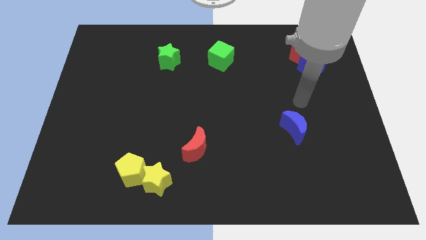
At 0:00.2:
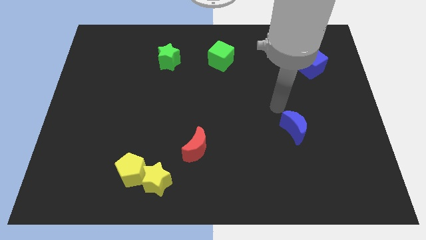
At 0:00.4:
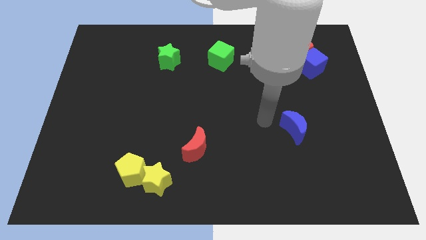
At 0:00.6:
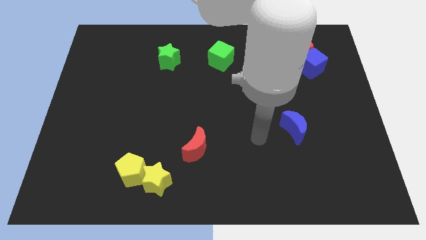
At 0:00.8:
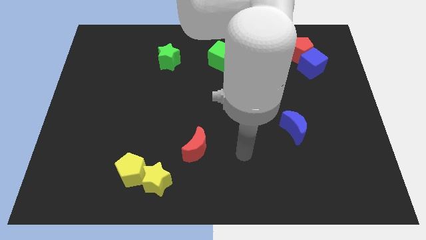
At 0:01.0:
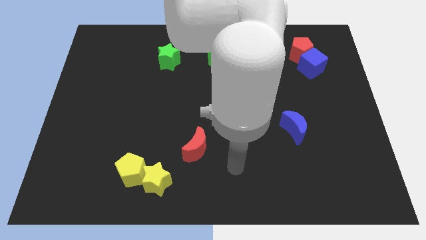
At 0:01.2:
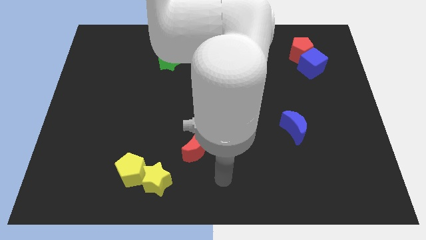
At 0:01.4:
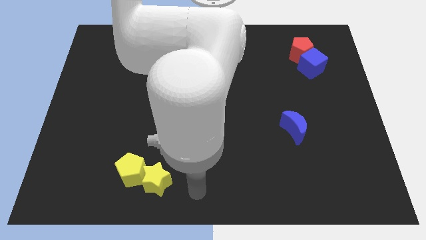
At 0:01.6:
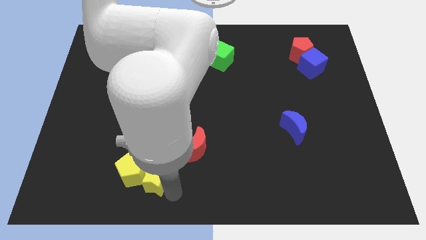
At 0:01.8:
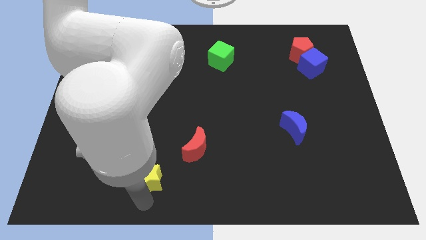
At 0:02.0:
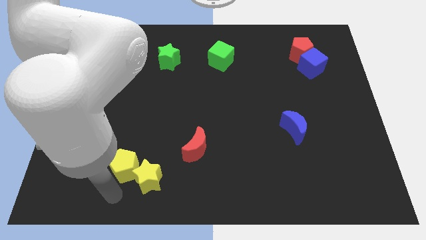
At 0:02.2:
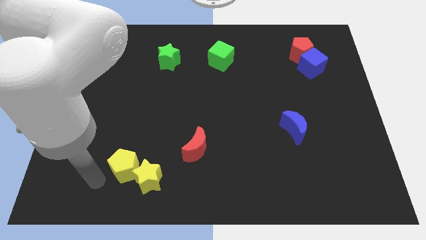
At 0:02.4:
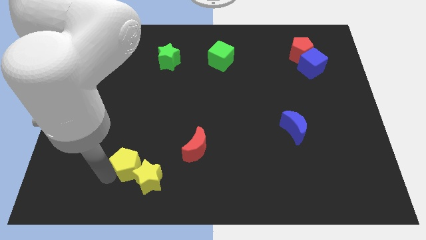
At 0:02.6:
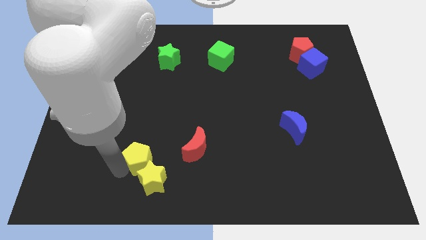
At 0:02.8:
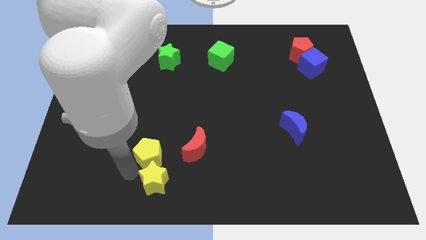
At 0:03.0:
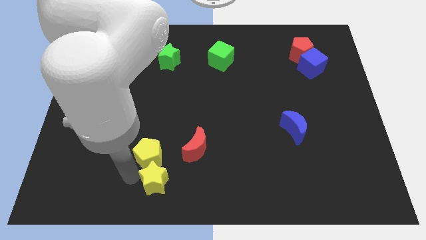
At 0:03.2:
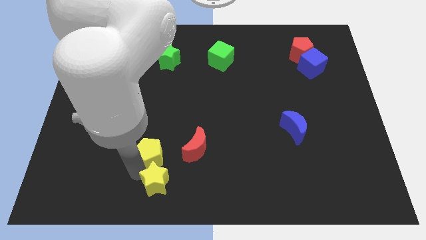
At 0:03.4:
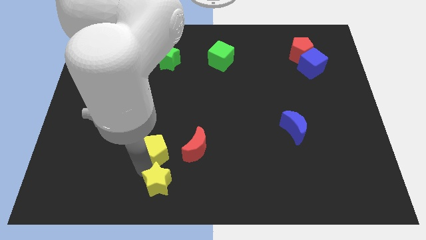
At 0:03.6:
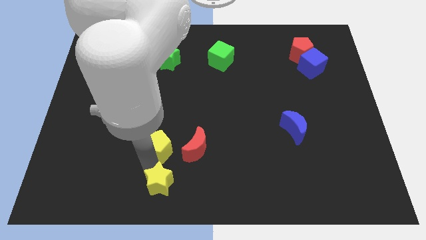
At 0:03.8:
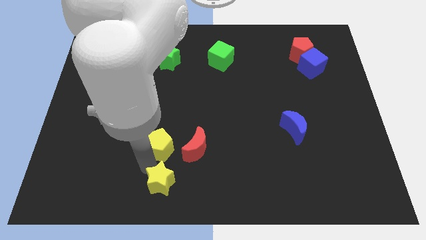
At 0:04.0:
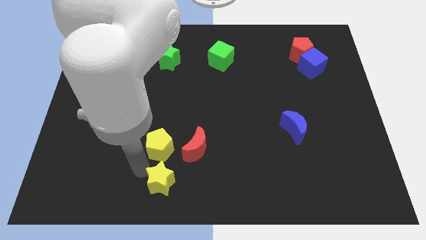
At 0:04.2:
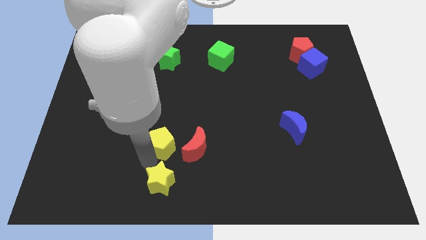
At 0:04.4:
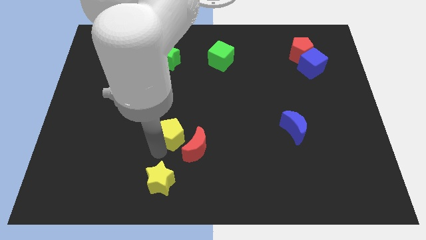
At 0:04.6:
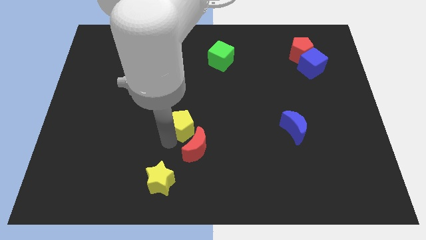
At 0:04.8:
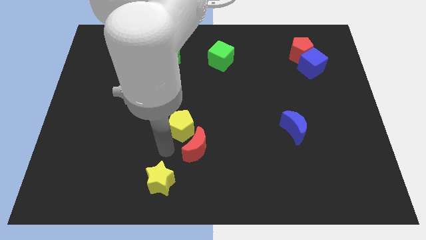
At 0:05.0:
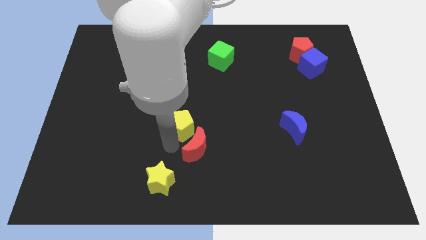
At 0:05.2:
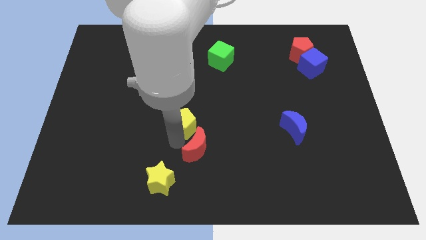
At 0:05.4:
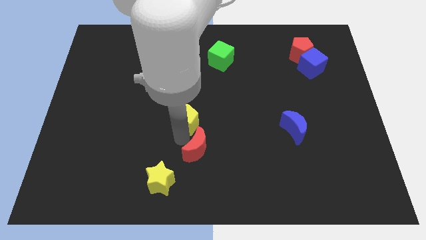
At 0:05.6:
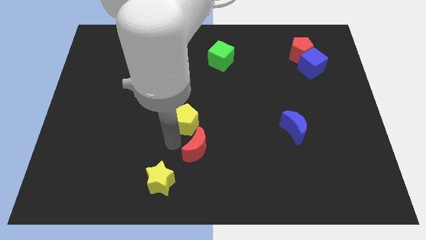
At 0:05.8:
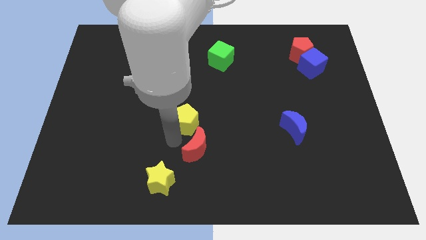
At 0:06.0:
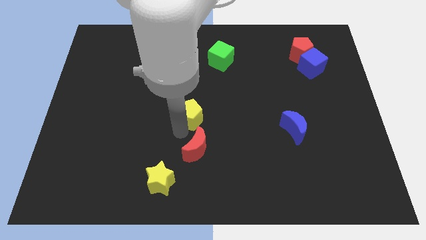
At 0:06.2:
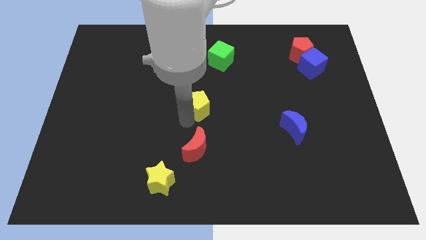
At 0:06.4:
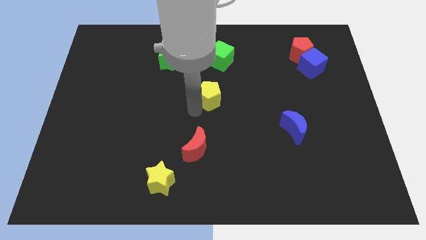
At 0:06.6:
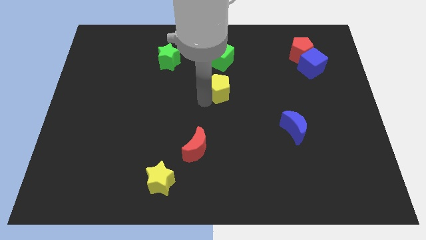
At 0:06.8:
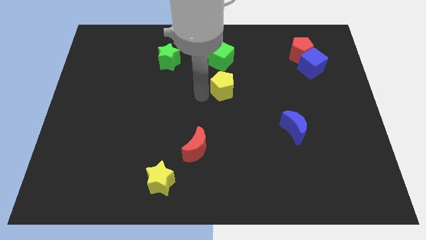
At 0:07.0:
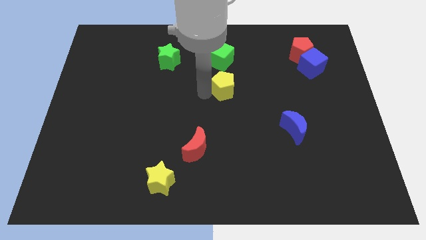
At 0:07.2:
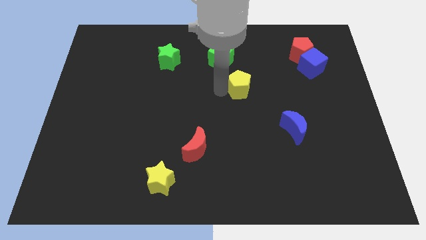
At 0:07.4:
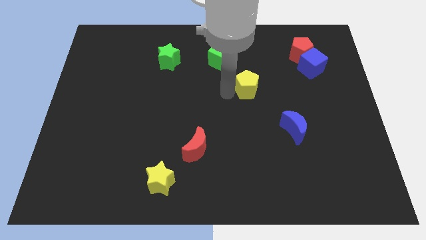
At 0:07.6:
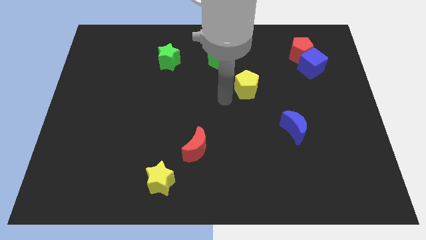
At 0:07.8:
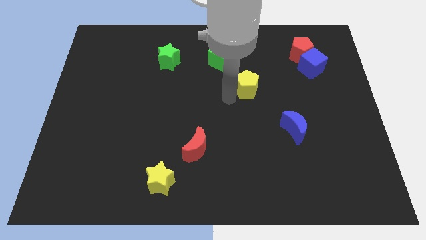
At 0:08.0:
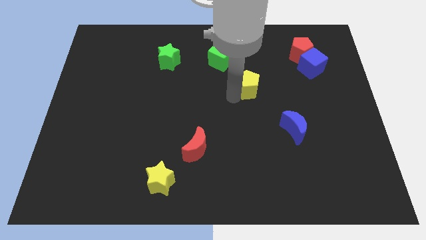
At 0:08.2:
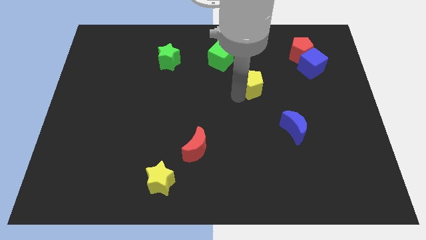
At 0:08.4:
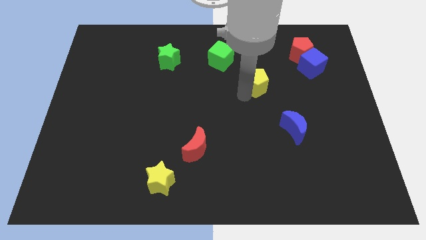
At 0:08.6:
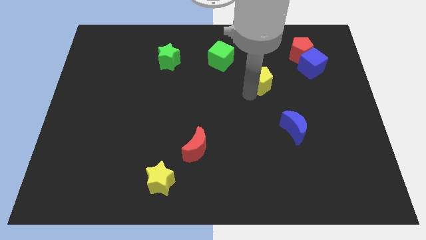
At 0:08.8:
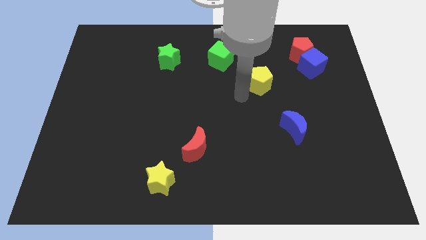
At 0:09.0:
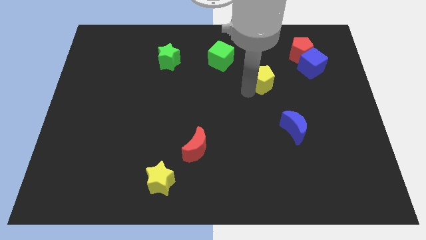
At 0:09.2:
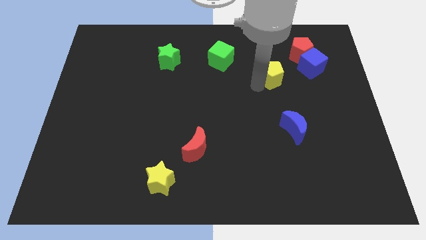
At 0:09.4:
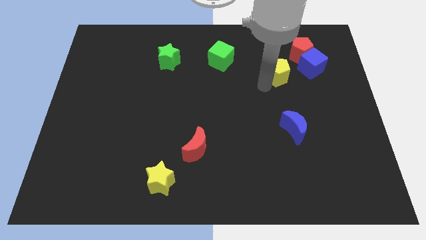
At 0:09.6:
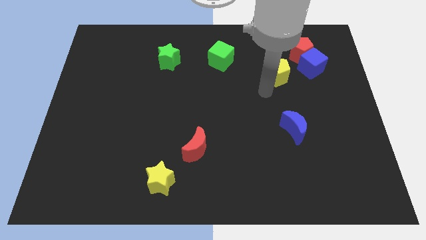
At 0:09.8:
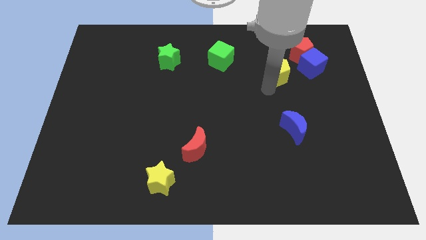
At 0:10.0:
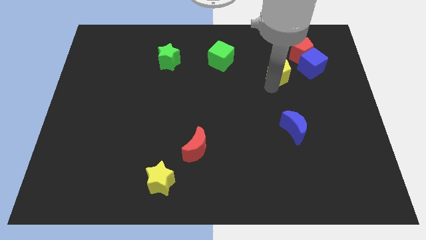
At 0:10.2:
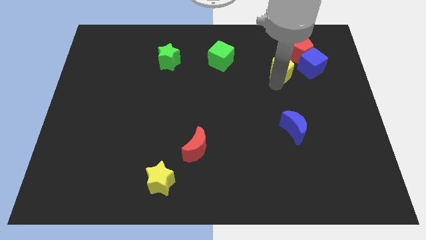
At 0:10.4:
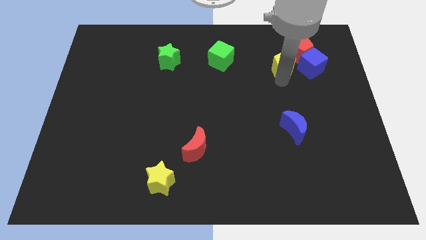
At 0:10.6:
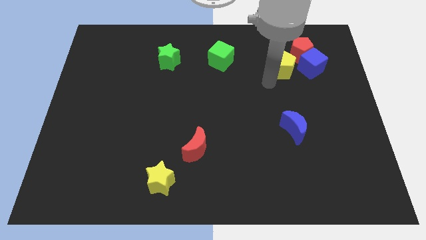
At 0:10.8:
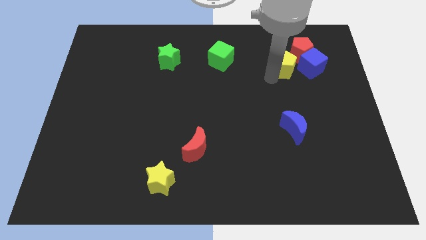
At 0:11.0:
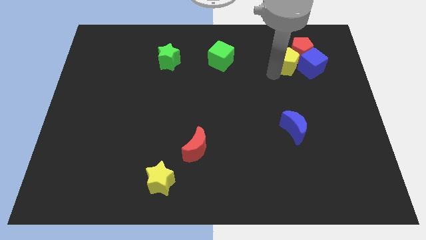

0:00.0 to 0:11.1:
put the yellow pentagon close to the red pentagon

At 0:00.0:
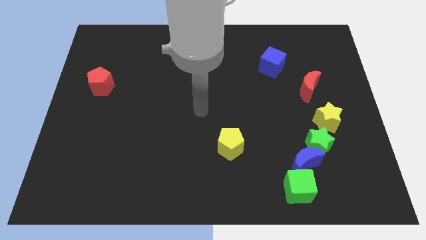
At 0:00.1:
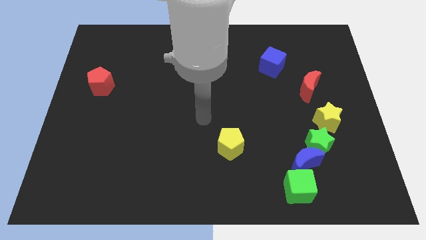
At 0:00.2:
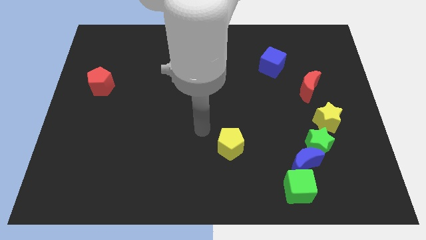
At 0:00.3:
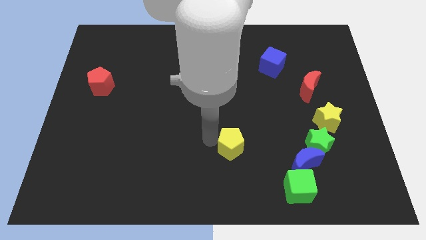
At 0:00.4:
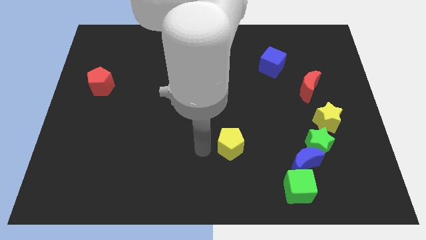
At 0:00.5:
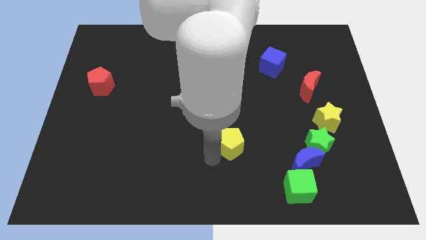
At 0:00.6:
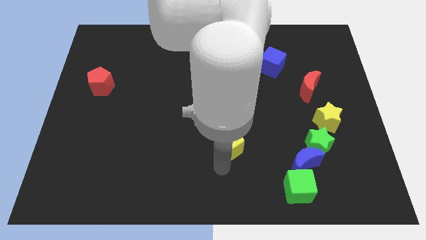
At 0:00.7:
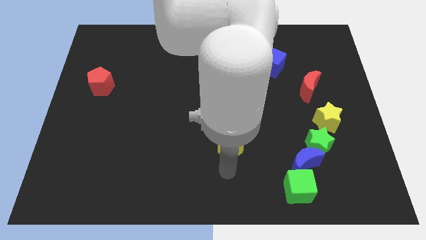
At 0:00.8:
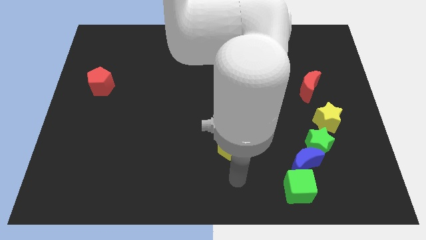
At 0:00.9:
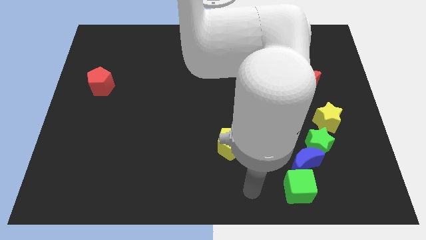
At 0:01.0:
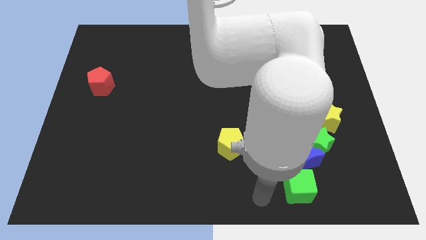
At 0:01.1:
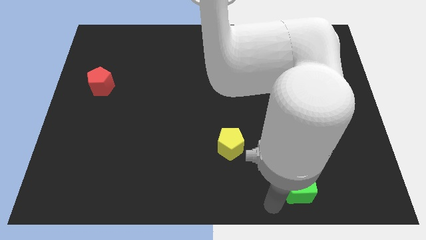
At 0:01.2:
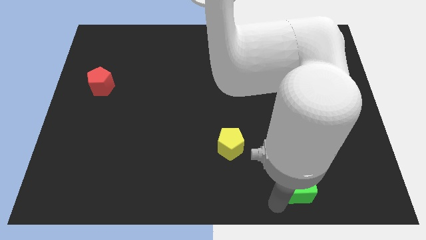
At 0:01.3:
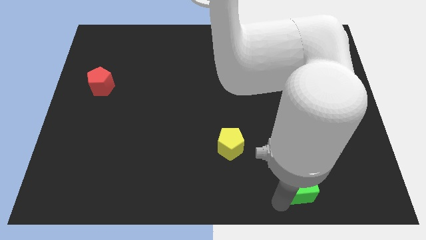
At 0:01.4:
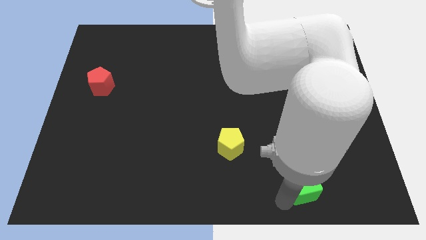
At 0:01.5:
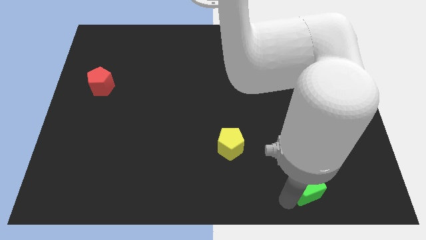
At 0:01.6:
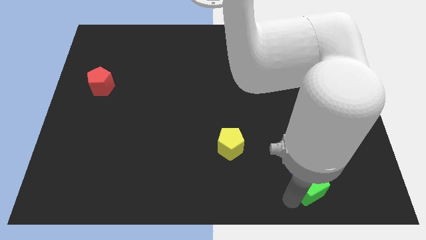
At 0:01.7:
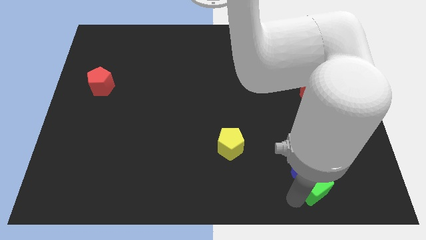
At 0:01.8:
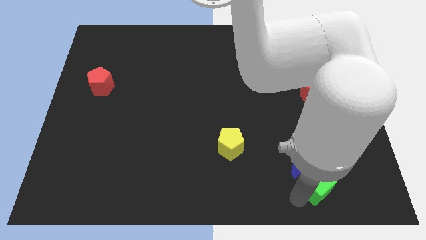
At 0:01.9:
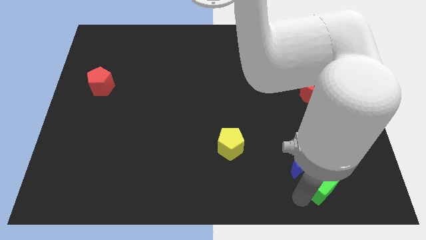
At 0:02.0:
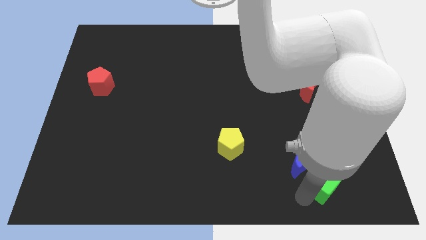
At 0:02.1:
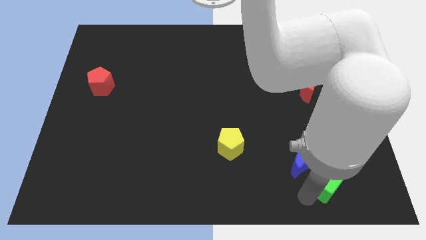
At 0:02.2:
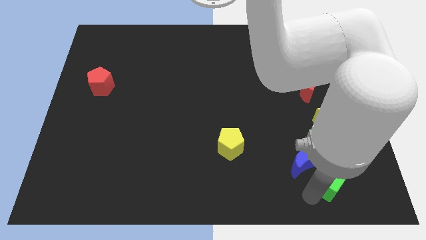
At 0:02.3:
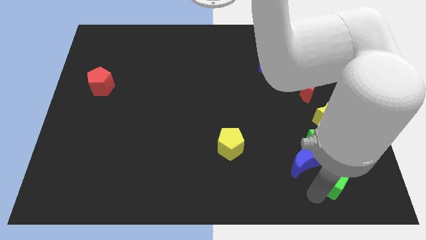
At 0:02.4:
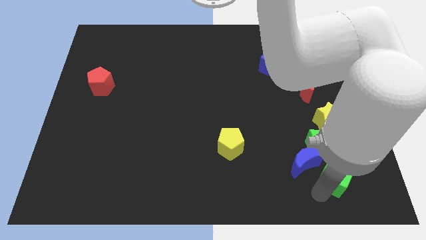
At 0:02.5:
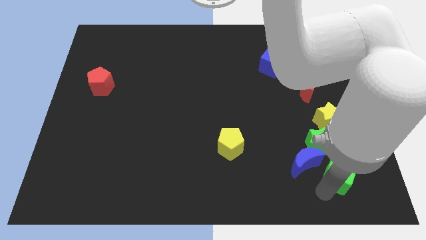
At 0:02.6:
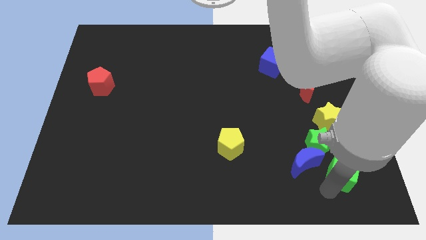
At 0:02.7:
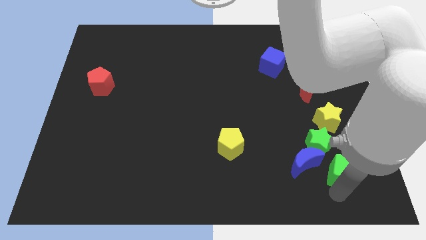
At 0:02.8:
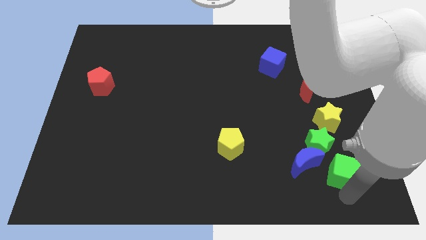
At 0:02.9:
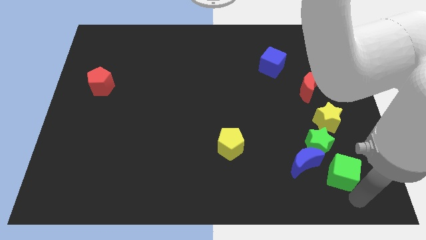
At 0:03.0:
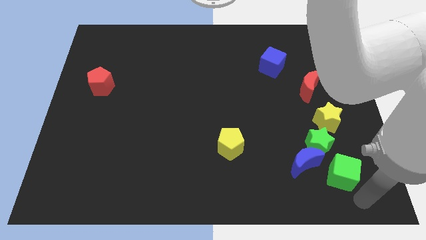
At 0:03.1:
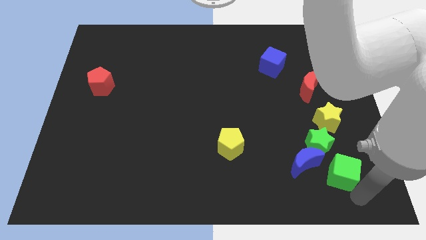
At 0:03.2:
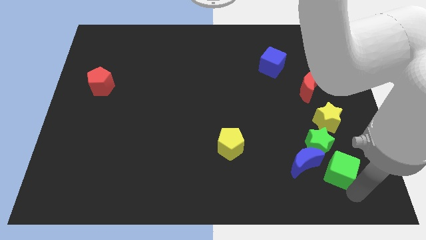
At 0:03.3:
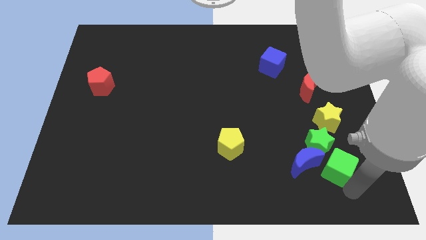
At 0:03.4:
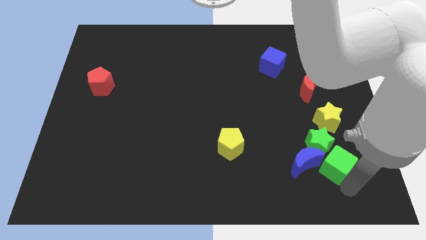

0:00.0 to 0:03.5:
put the green cube towards the green star
